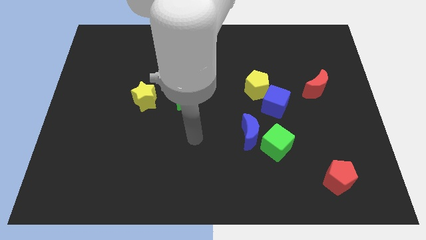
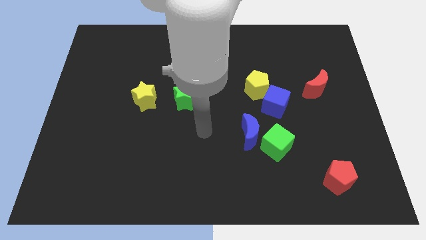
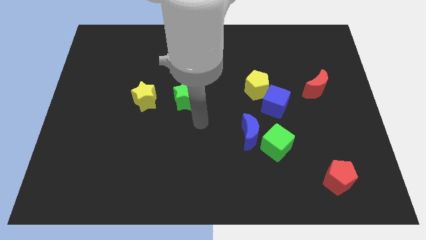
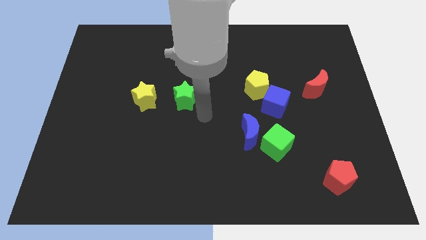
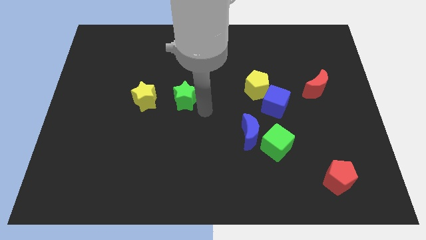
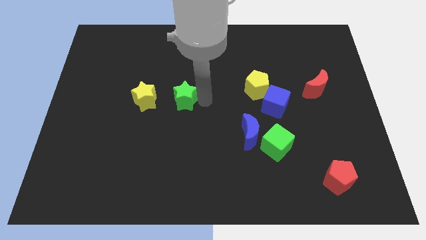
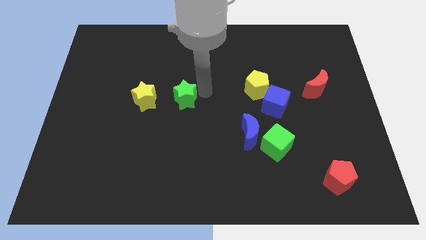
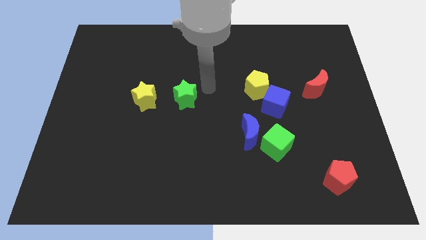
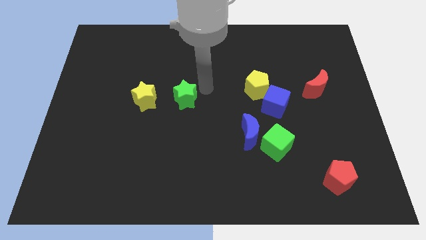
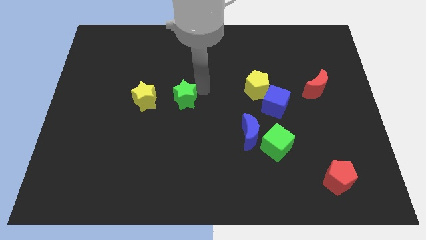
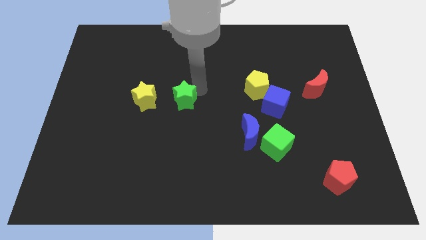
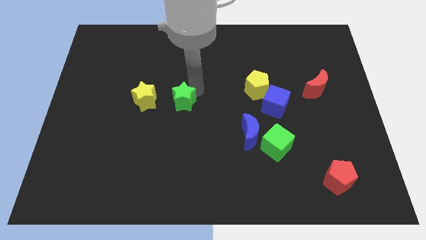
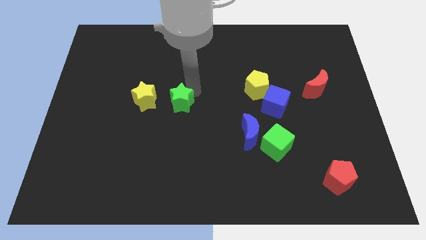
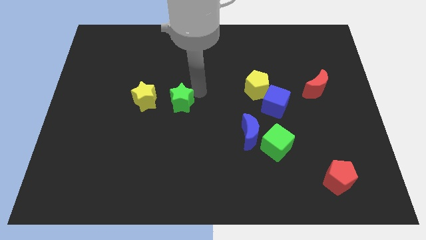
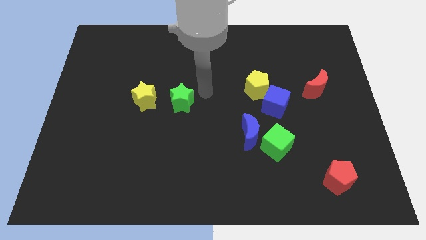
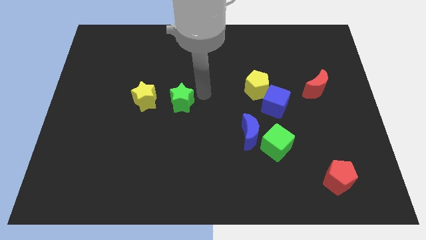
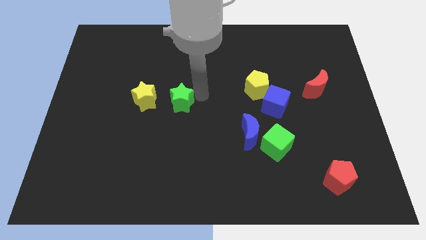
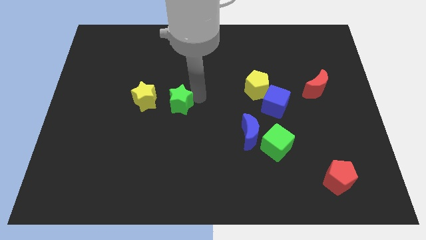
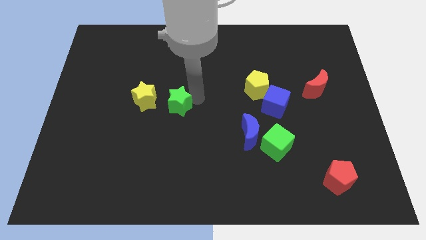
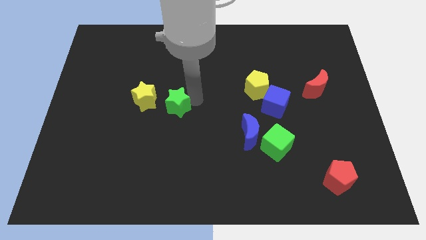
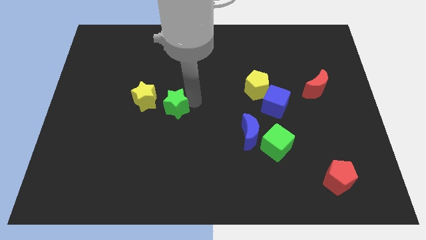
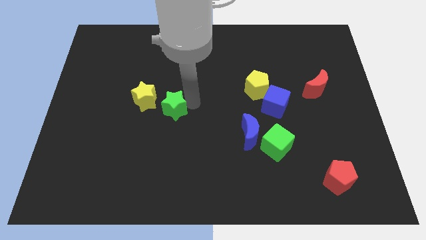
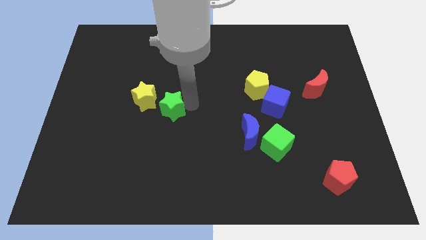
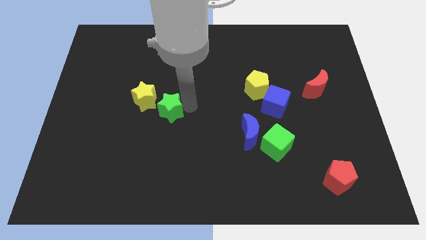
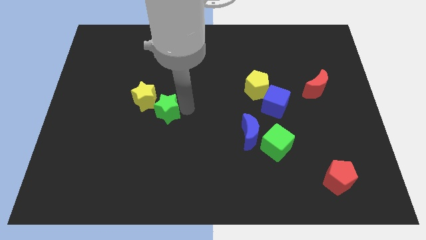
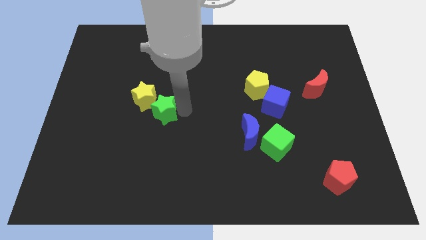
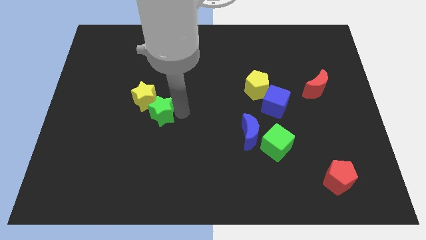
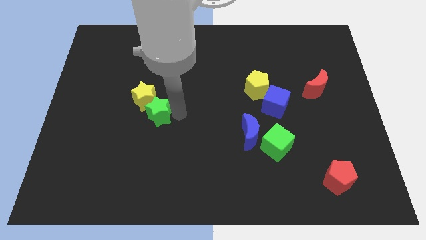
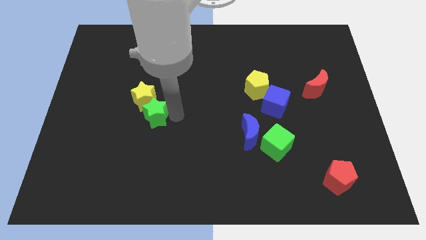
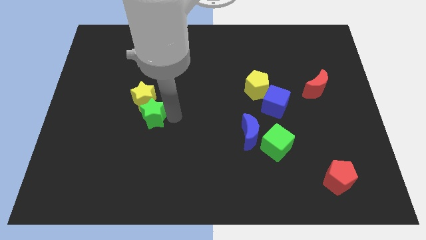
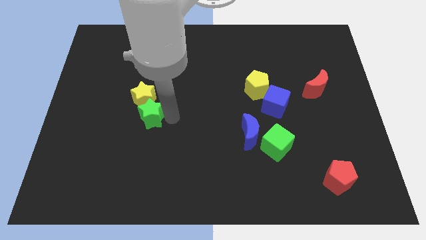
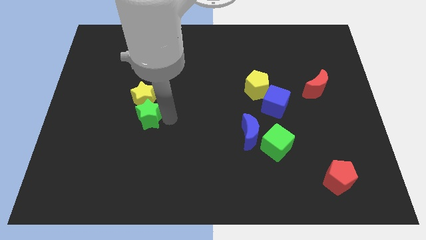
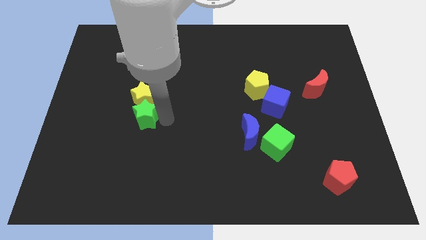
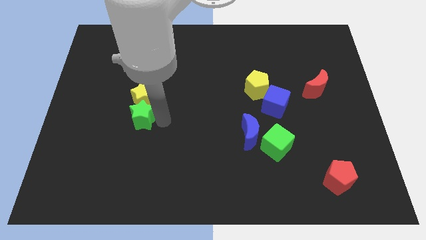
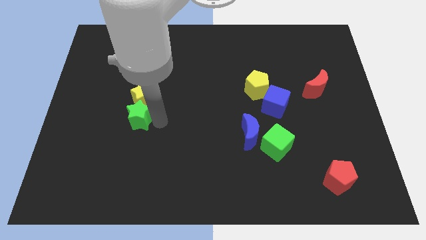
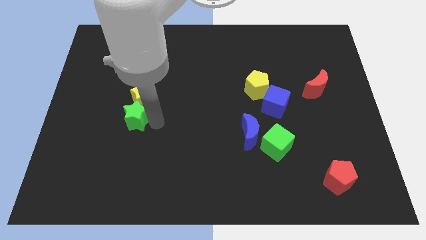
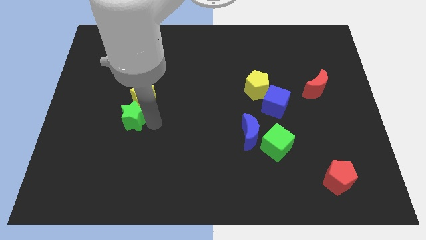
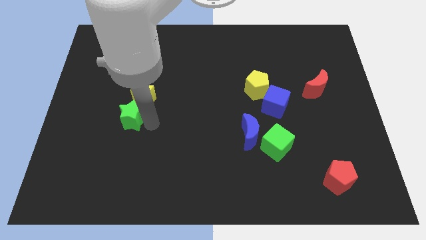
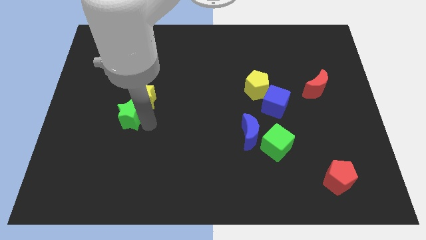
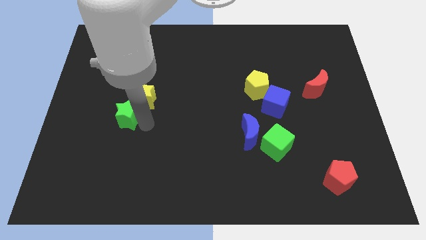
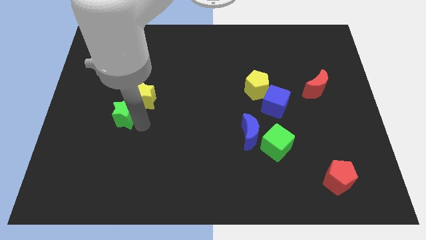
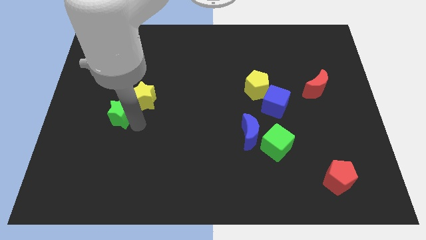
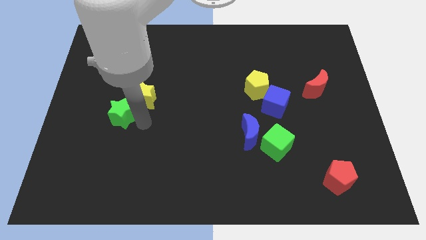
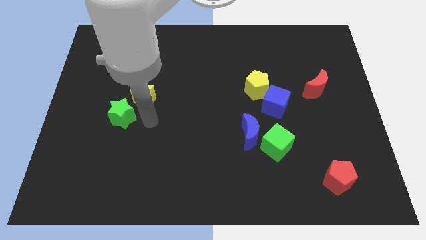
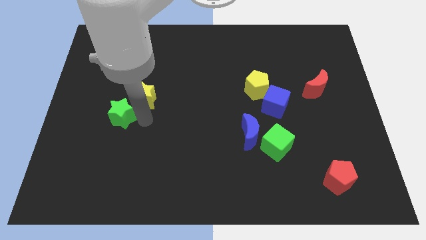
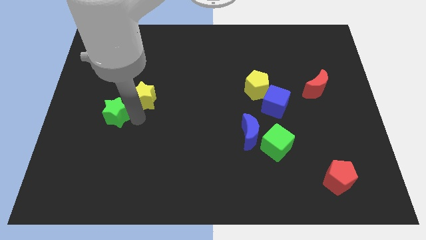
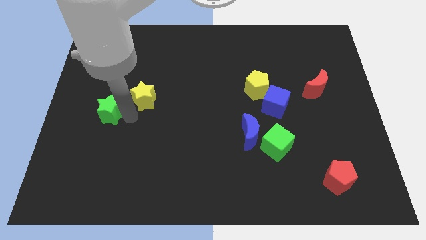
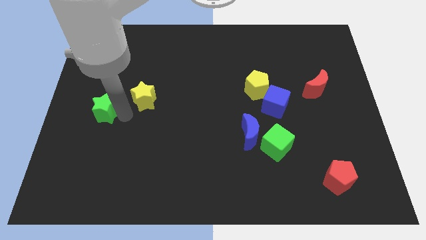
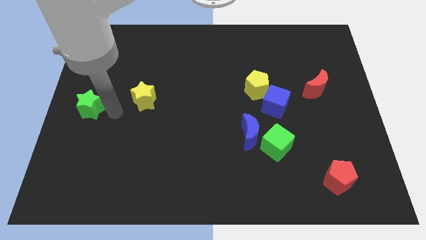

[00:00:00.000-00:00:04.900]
put the green star to the left side of the board

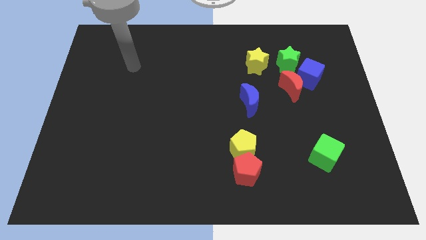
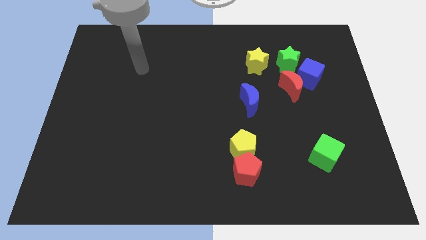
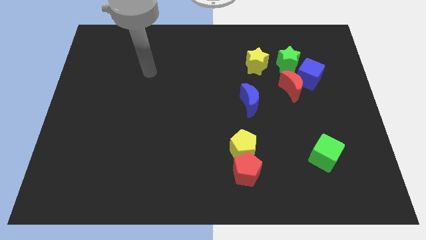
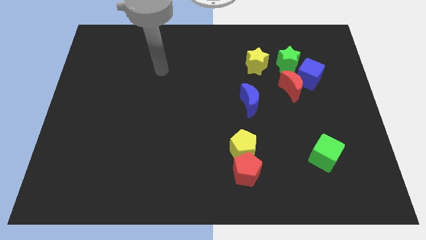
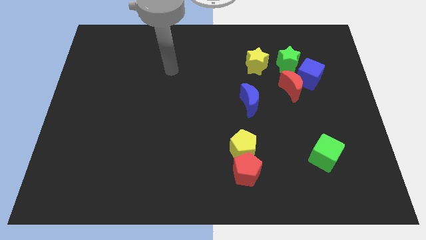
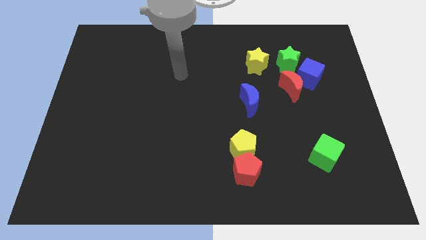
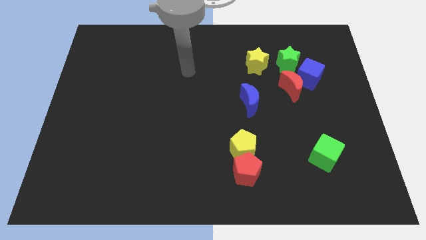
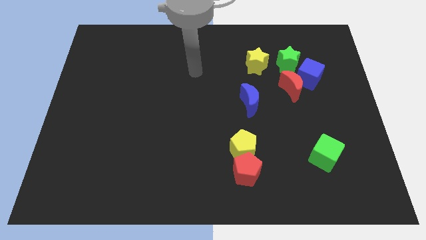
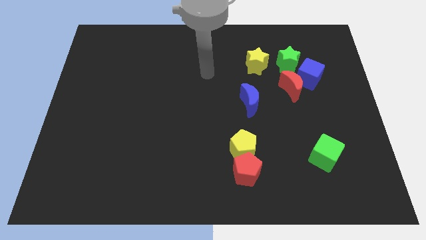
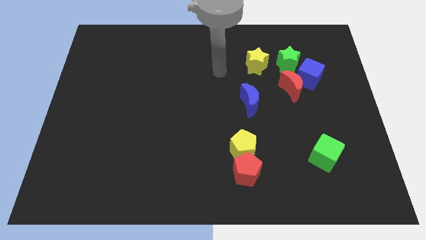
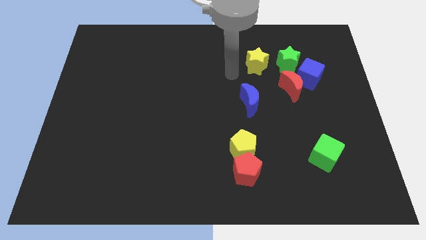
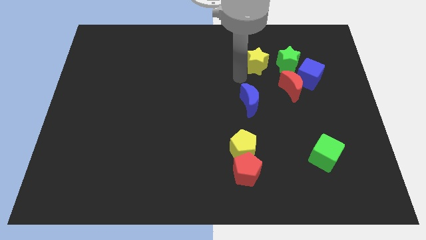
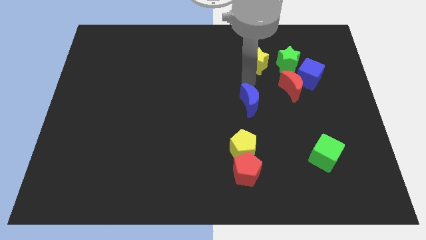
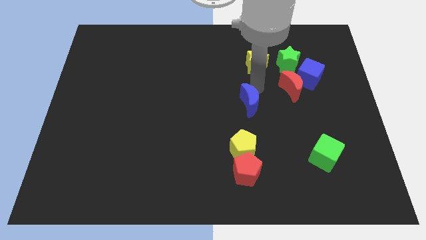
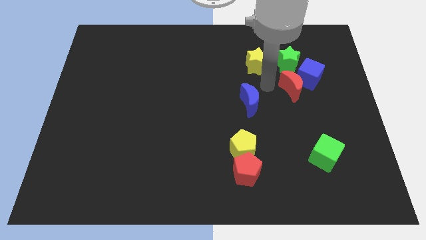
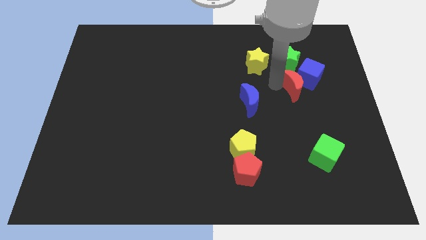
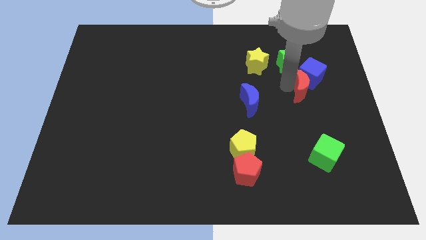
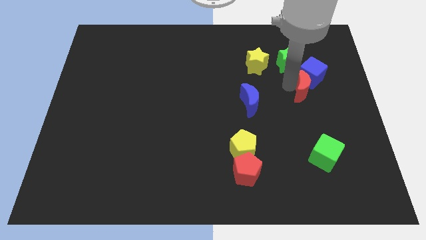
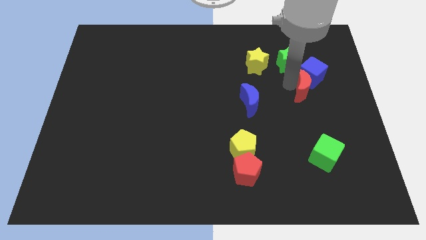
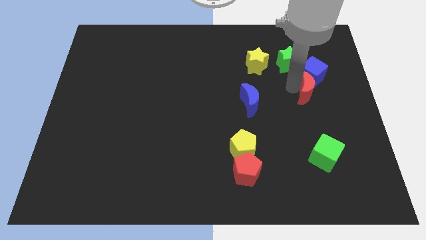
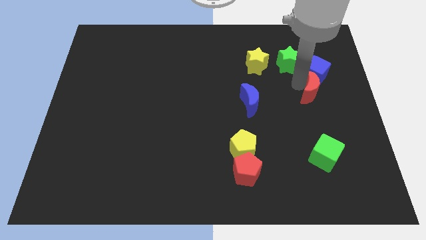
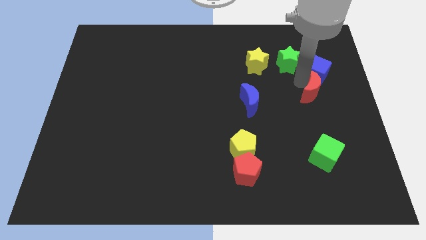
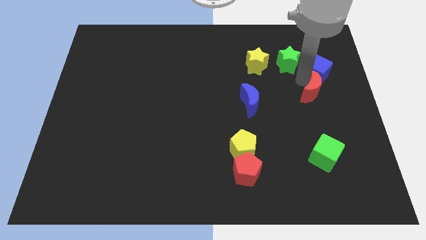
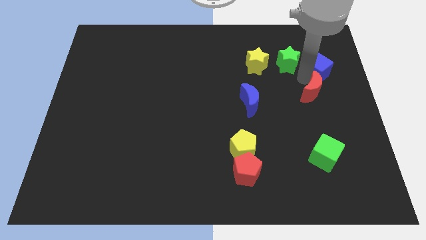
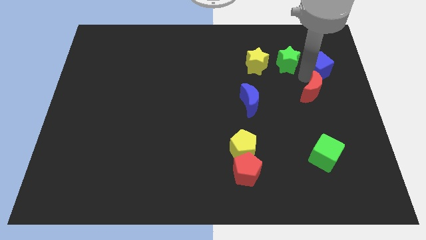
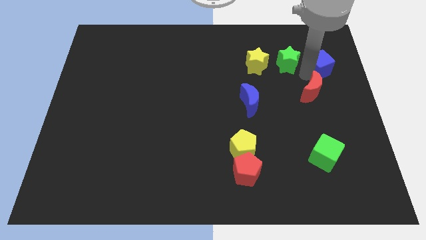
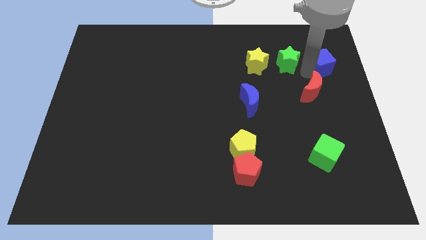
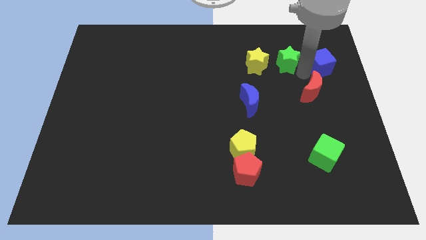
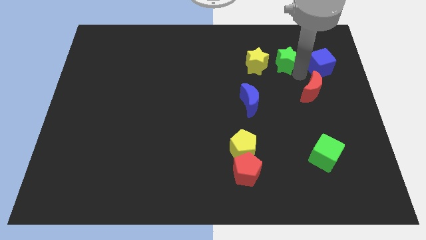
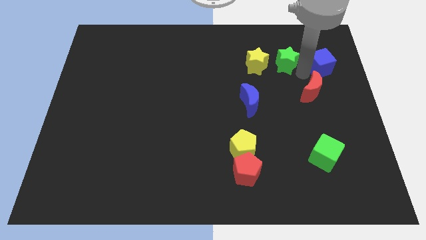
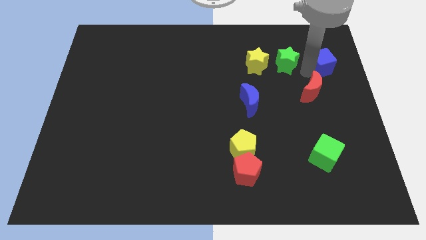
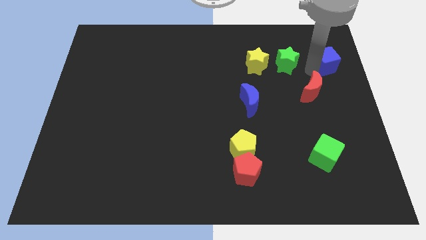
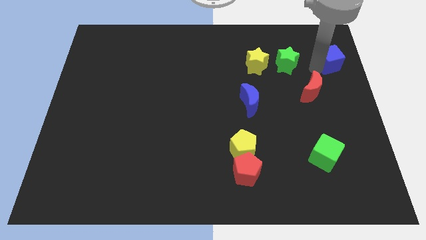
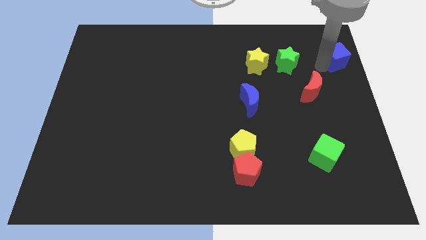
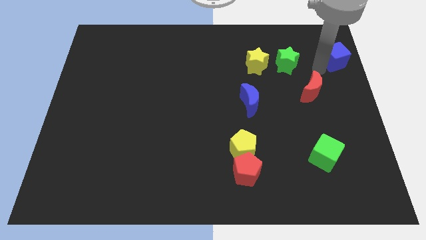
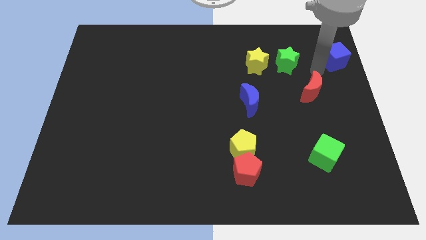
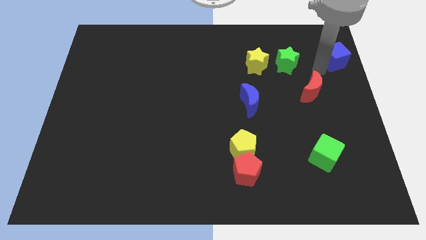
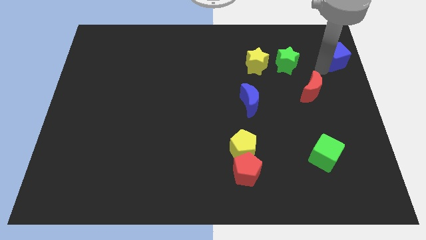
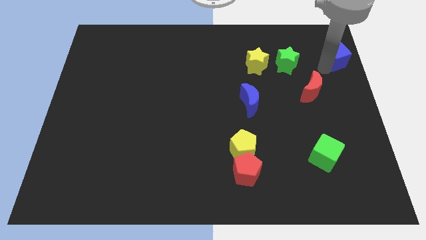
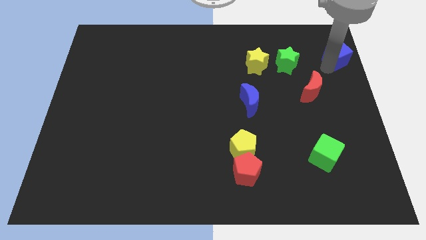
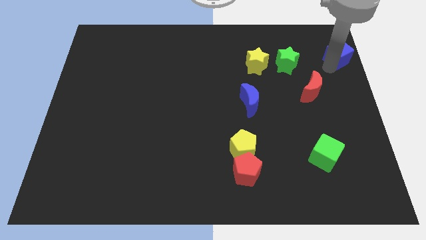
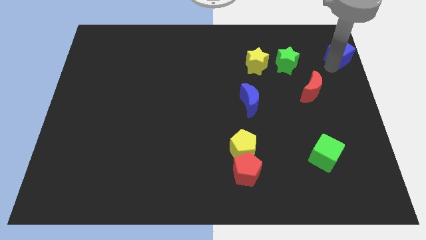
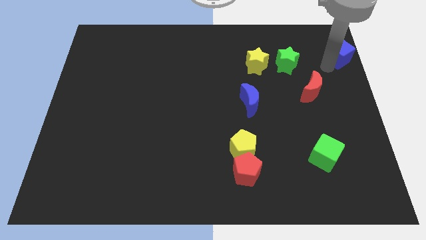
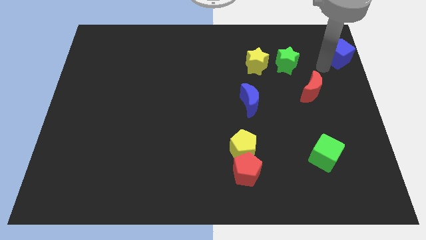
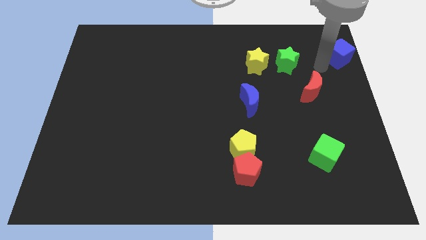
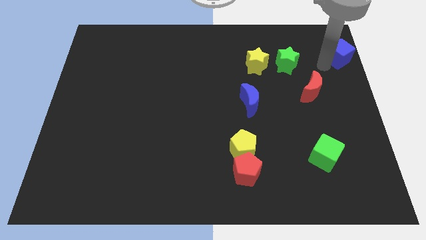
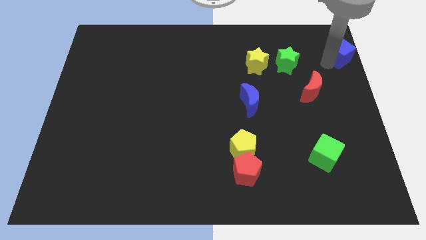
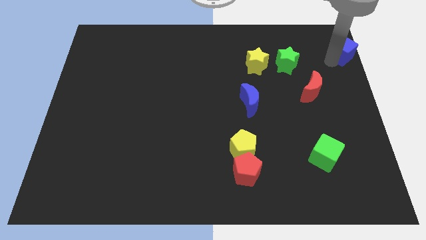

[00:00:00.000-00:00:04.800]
put the blue cube to the upper right corner
